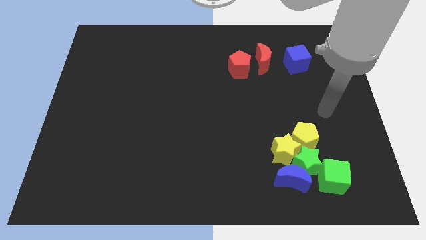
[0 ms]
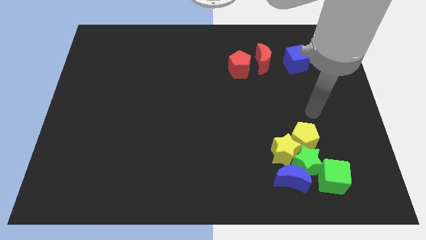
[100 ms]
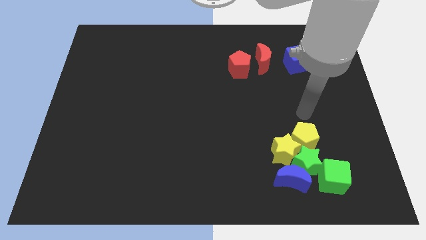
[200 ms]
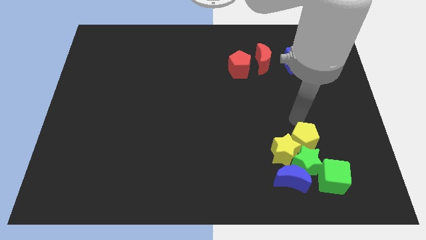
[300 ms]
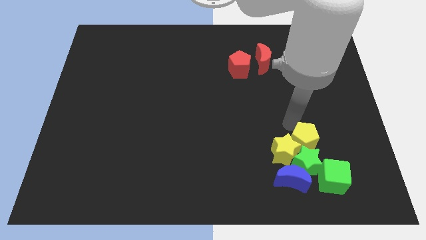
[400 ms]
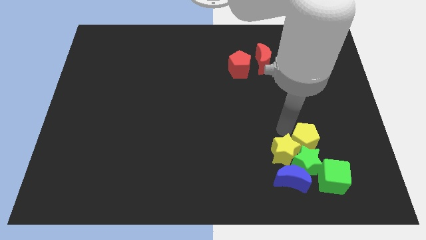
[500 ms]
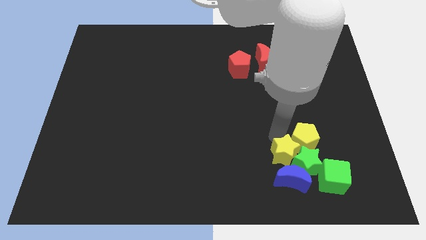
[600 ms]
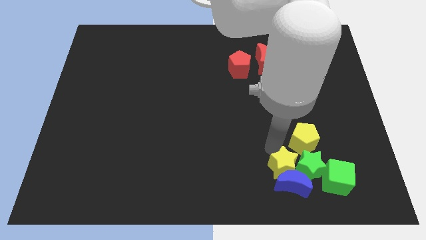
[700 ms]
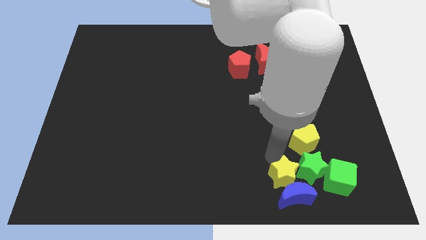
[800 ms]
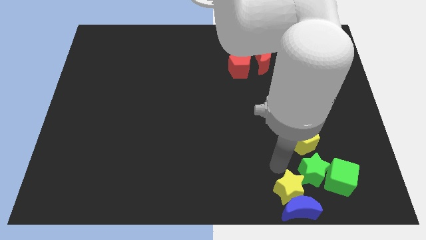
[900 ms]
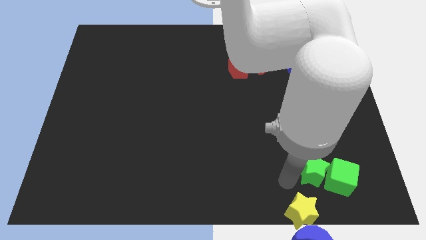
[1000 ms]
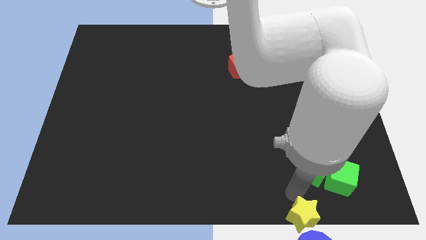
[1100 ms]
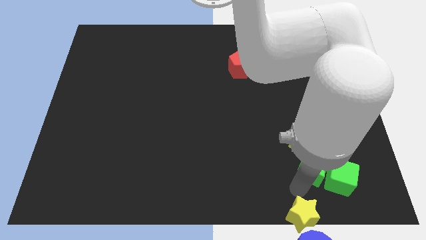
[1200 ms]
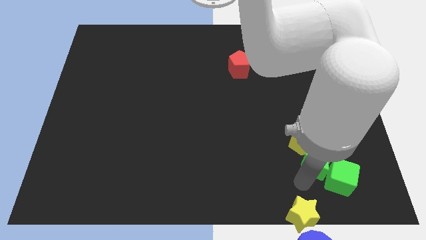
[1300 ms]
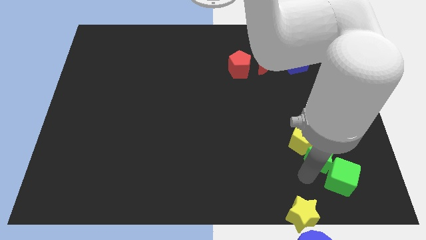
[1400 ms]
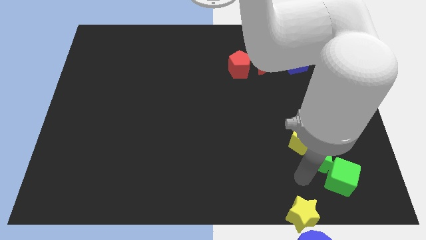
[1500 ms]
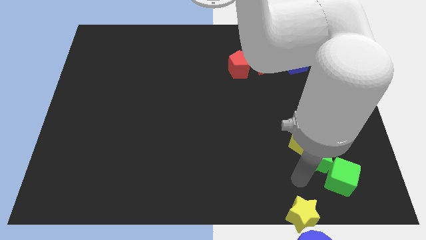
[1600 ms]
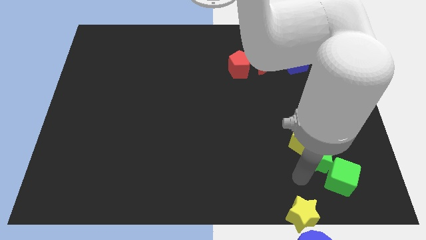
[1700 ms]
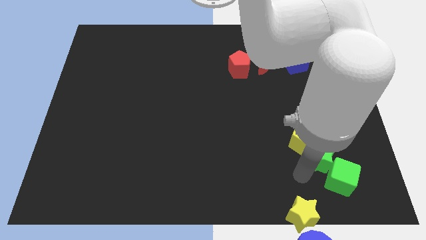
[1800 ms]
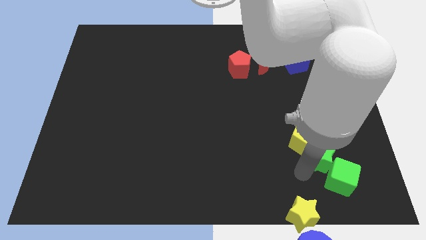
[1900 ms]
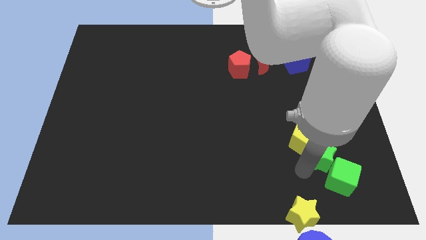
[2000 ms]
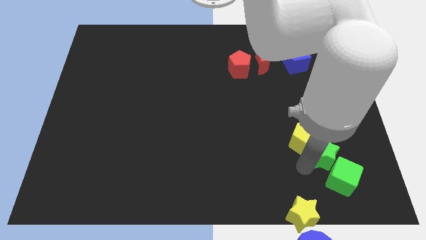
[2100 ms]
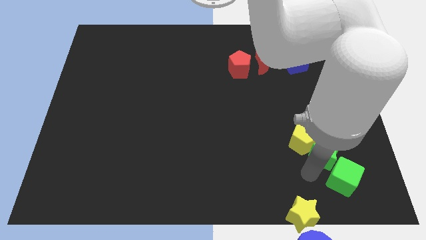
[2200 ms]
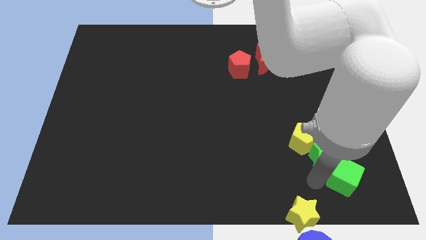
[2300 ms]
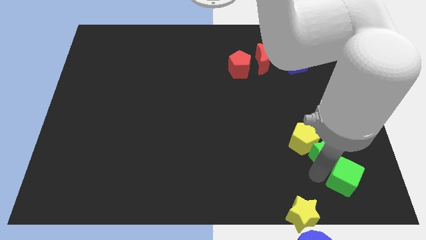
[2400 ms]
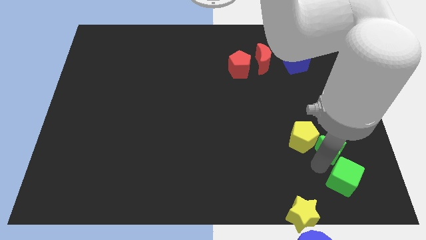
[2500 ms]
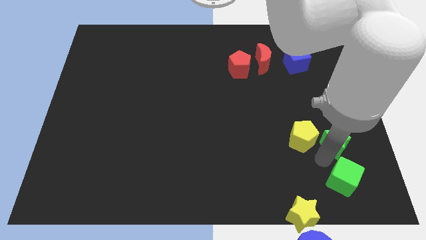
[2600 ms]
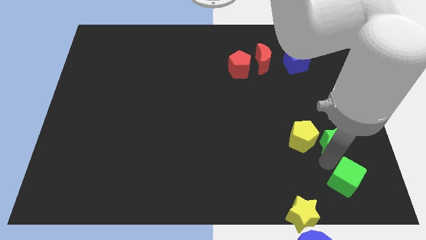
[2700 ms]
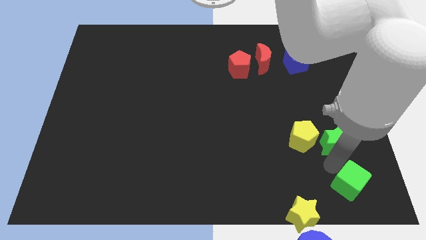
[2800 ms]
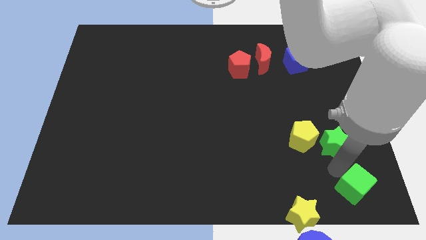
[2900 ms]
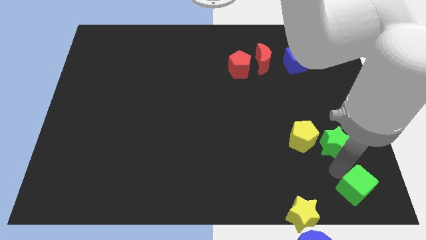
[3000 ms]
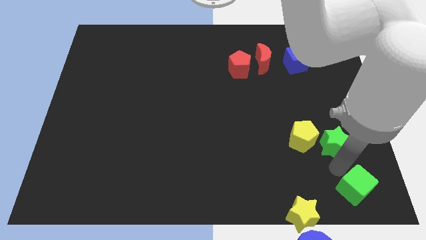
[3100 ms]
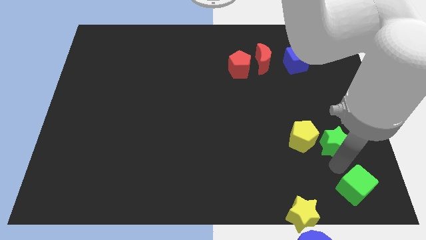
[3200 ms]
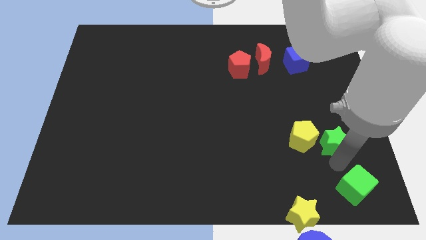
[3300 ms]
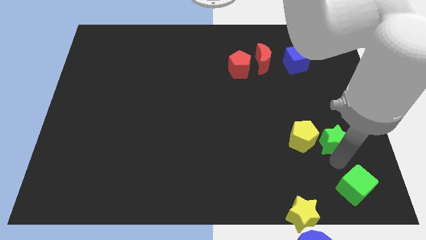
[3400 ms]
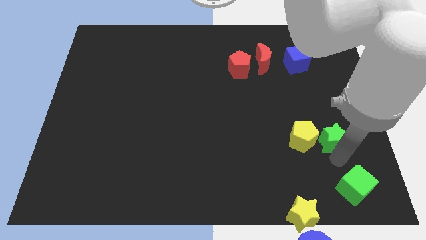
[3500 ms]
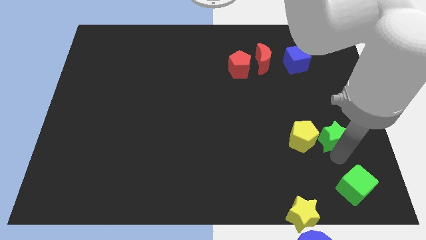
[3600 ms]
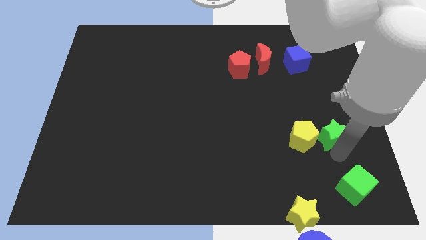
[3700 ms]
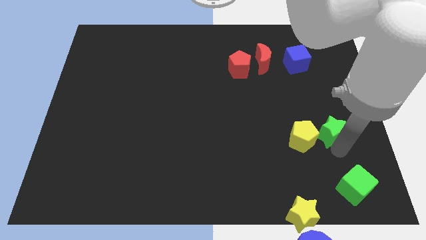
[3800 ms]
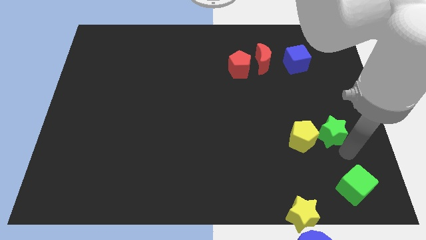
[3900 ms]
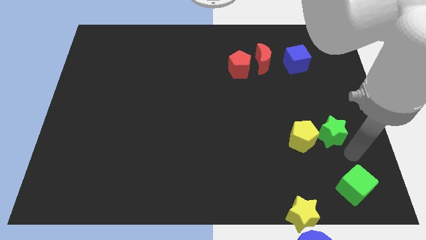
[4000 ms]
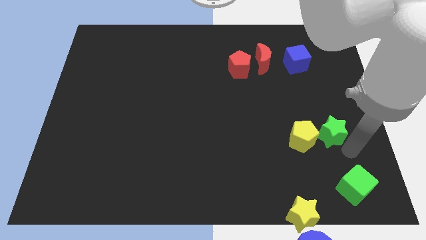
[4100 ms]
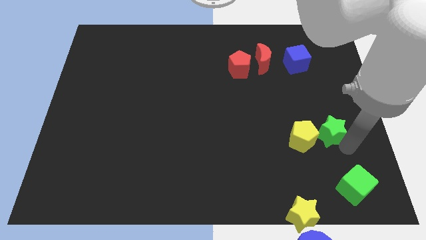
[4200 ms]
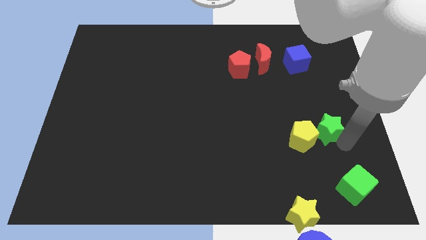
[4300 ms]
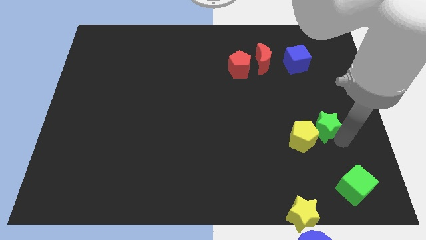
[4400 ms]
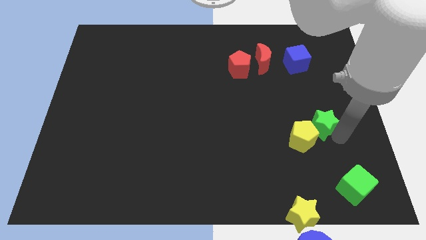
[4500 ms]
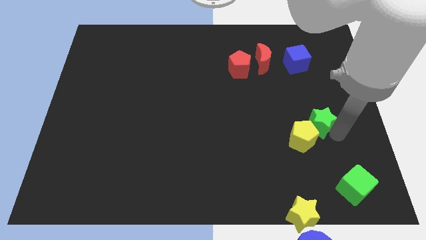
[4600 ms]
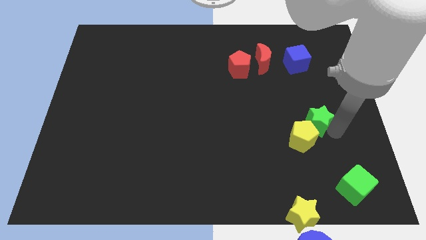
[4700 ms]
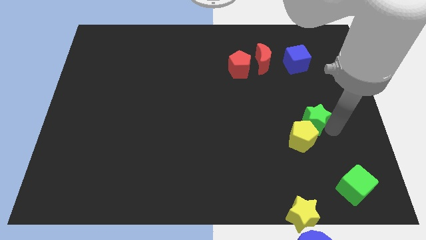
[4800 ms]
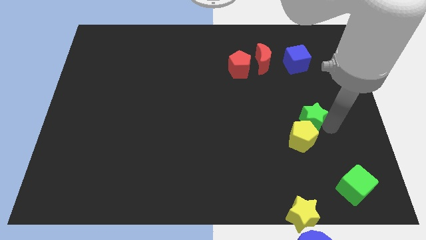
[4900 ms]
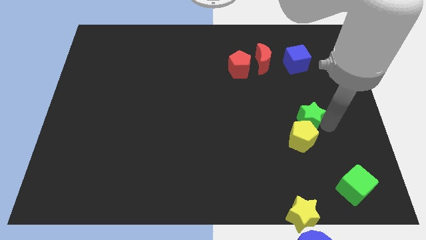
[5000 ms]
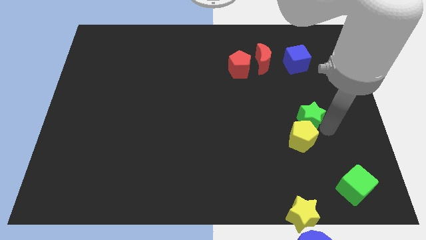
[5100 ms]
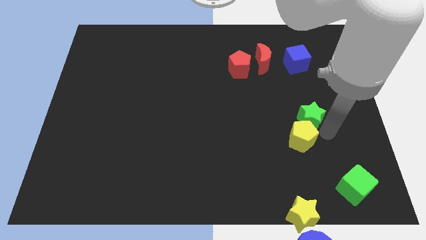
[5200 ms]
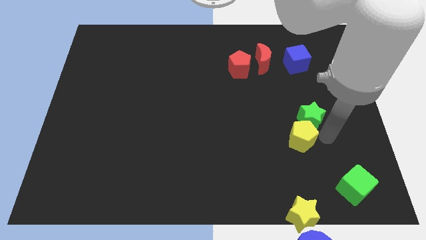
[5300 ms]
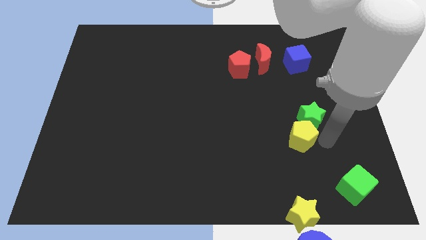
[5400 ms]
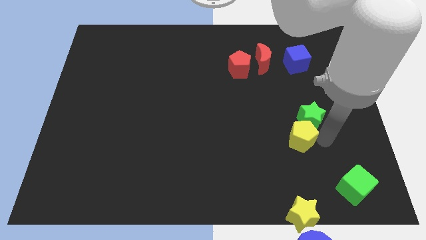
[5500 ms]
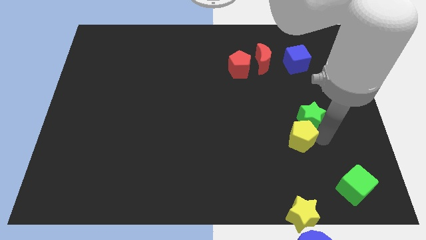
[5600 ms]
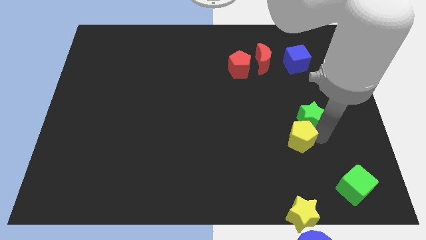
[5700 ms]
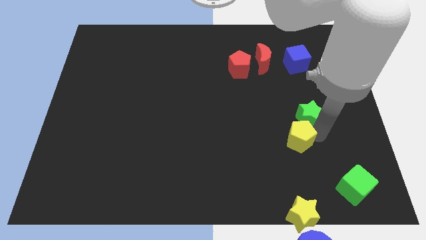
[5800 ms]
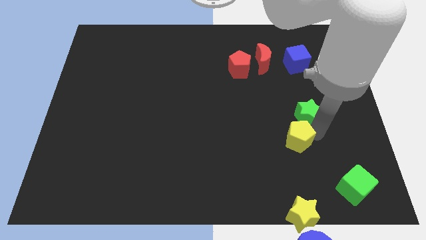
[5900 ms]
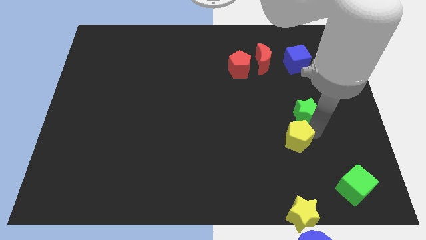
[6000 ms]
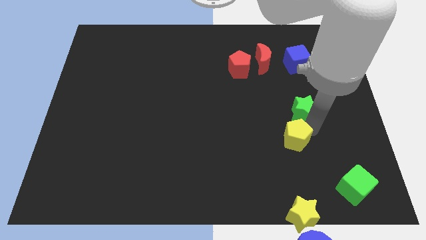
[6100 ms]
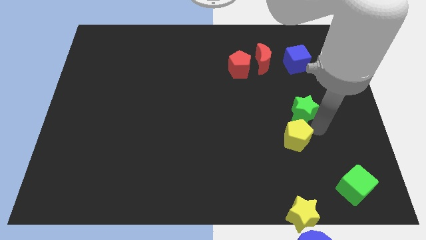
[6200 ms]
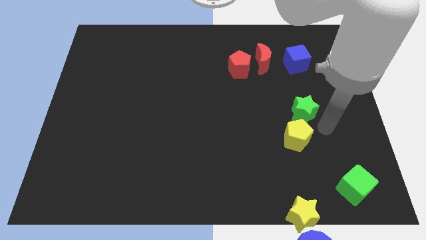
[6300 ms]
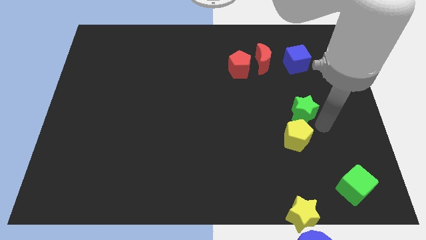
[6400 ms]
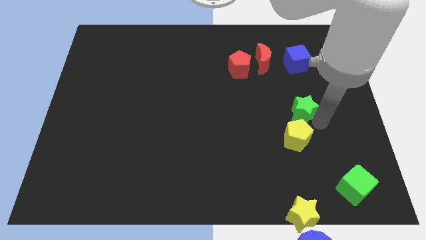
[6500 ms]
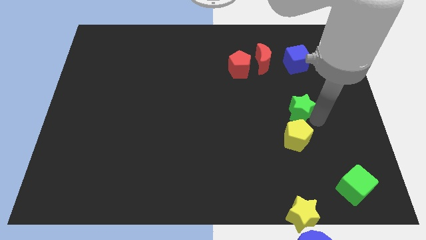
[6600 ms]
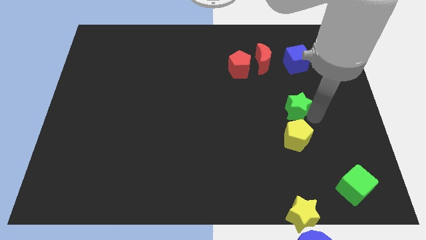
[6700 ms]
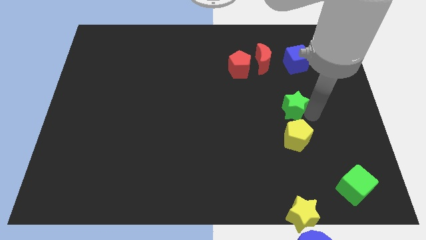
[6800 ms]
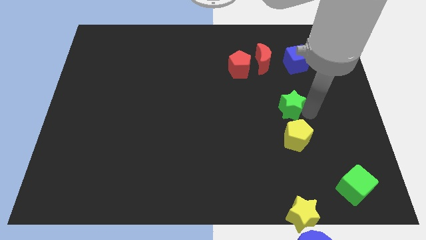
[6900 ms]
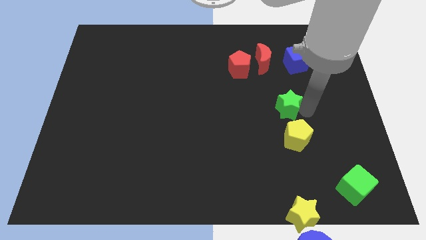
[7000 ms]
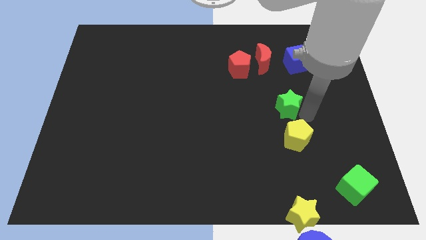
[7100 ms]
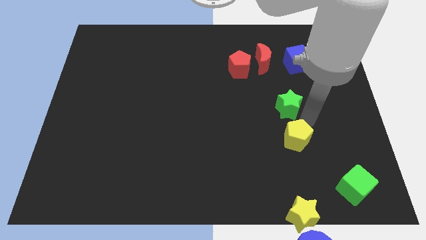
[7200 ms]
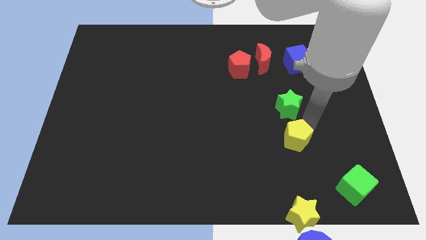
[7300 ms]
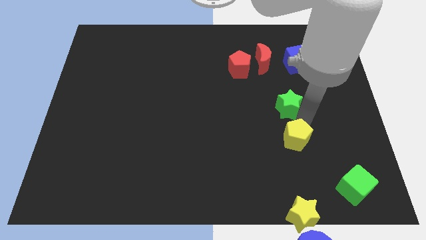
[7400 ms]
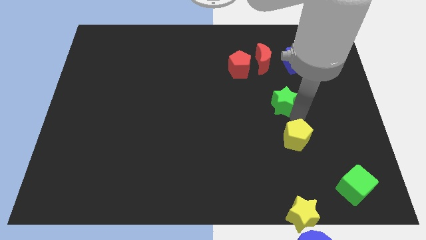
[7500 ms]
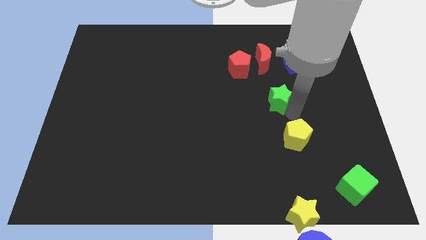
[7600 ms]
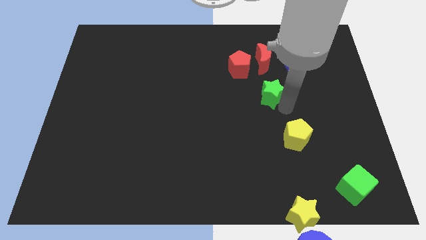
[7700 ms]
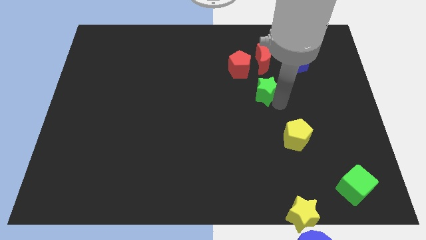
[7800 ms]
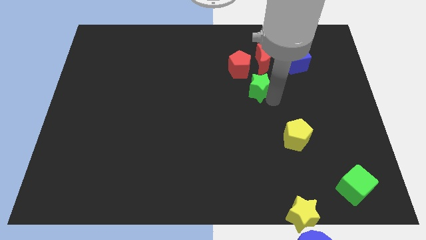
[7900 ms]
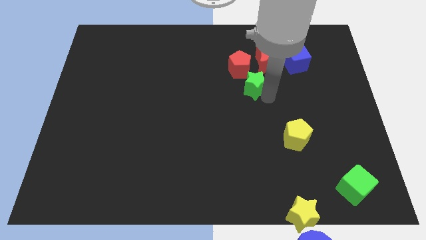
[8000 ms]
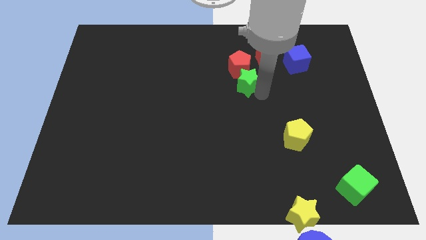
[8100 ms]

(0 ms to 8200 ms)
put the green star towards the red pentagon
